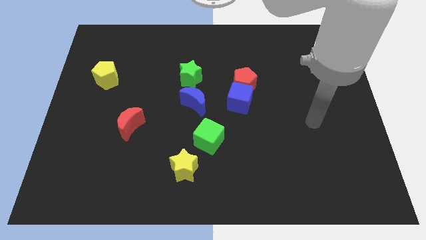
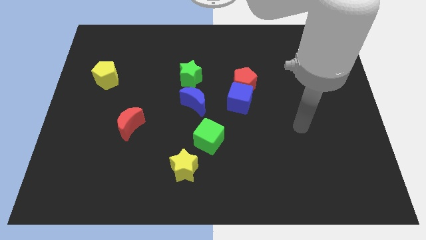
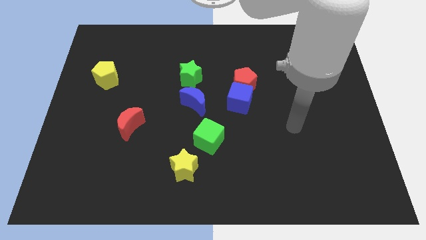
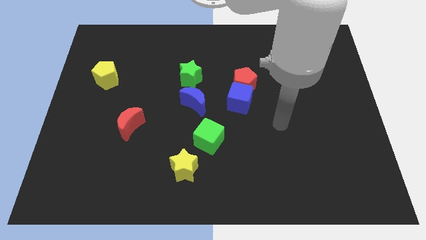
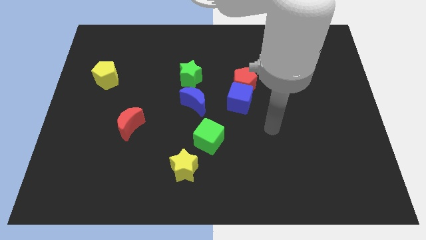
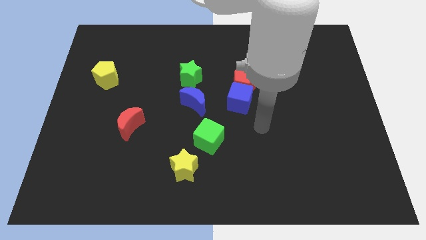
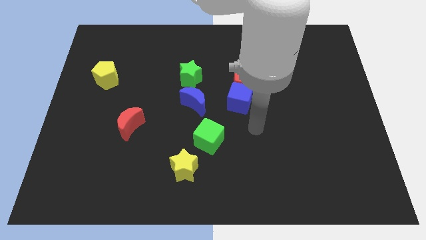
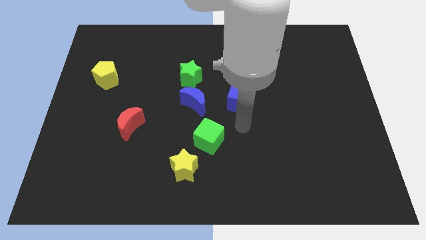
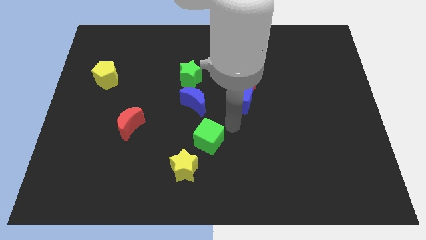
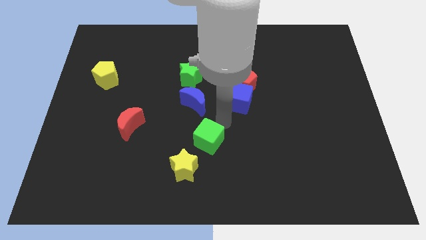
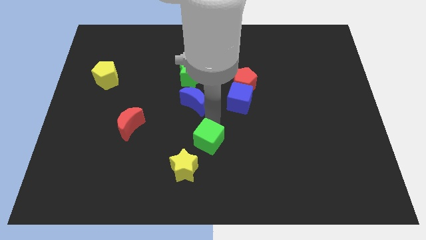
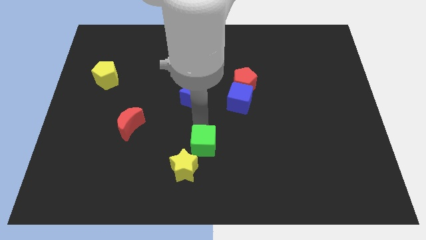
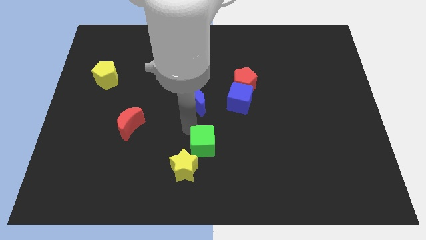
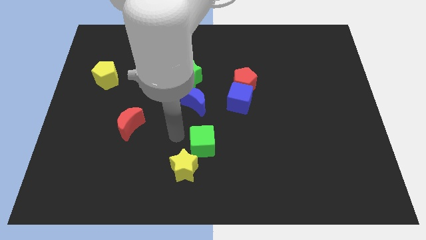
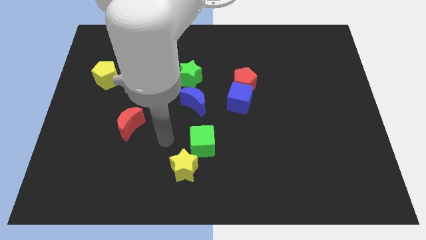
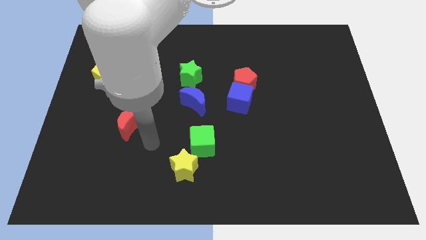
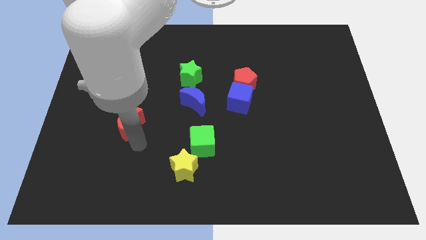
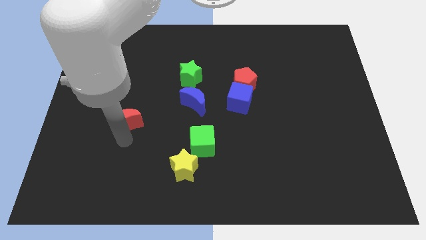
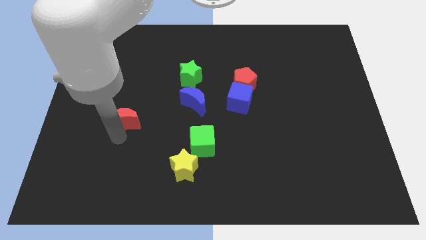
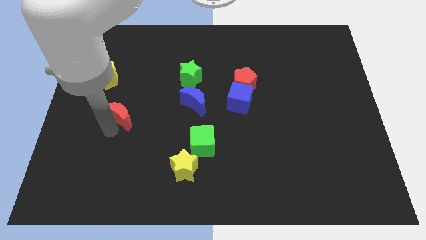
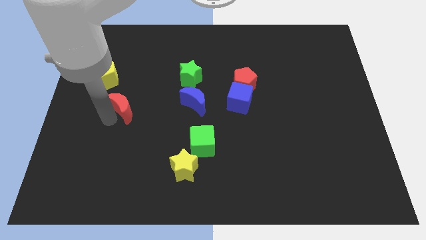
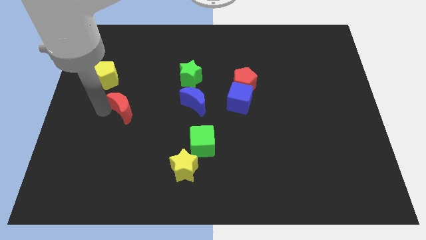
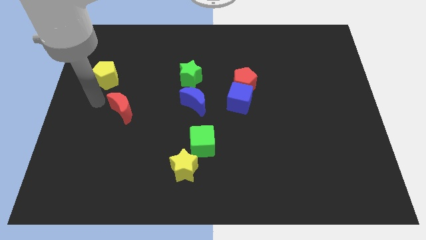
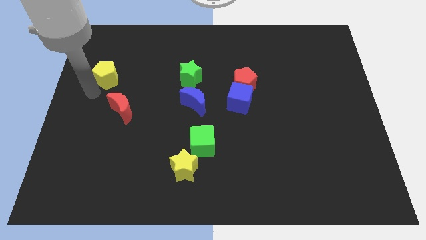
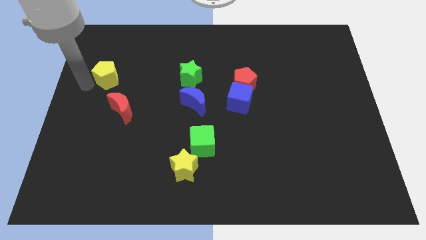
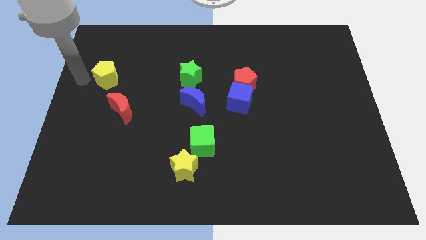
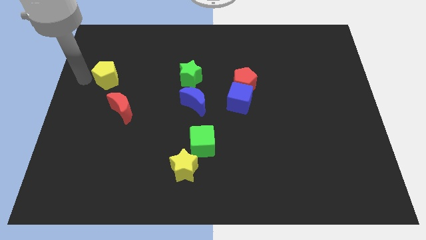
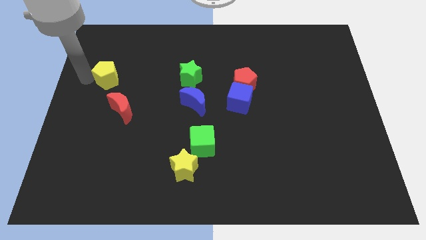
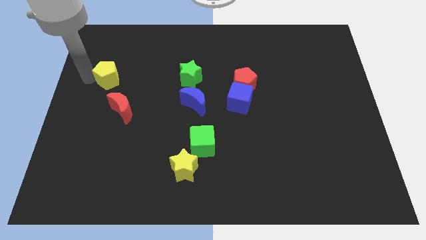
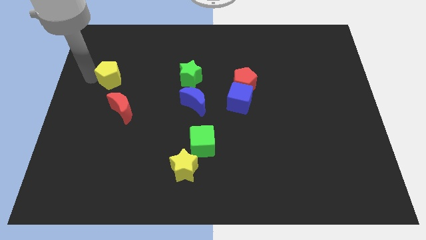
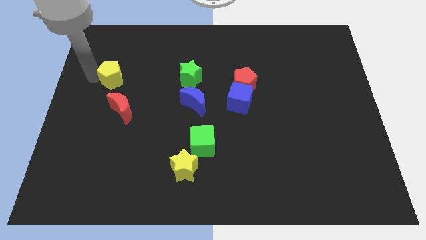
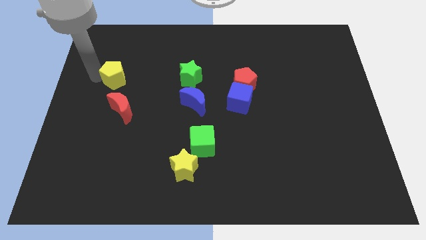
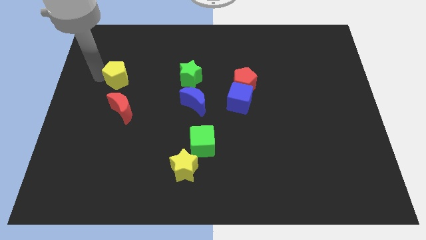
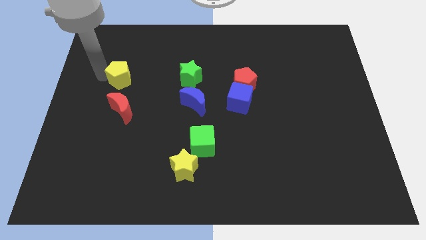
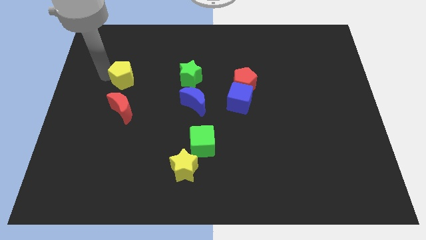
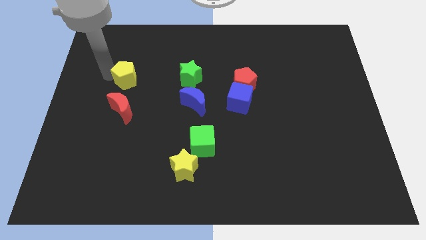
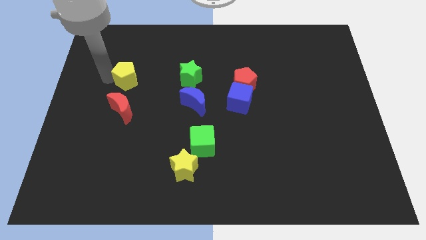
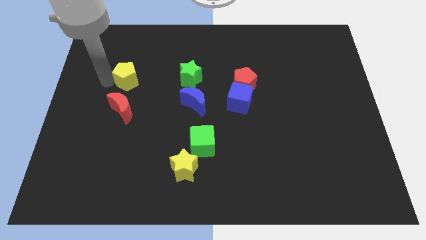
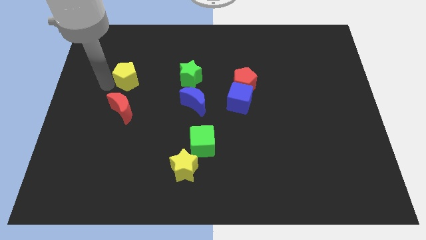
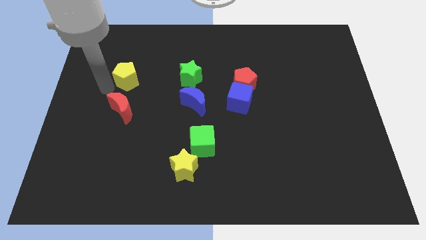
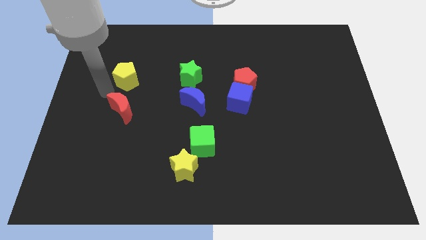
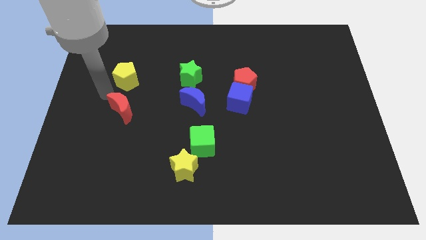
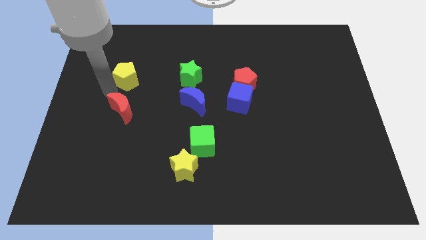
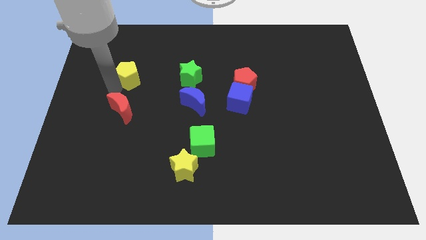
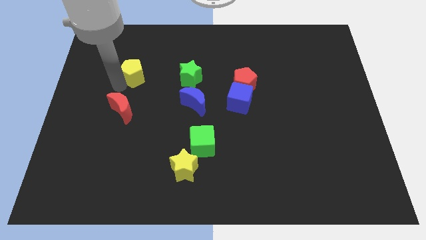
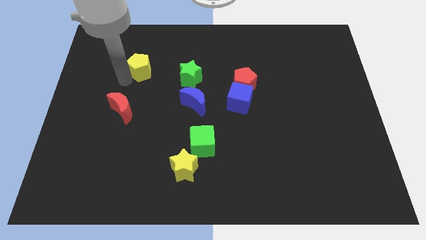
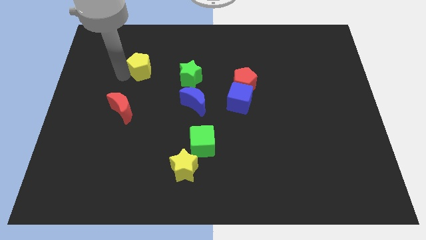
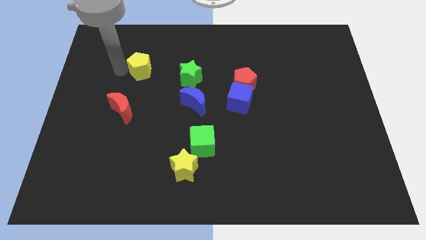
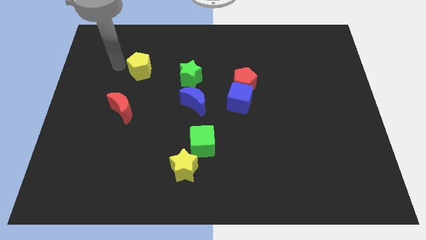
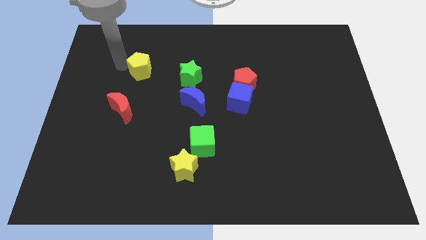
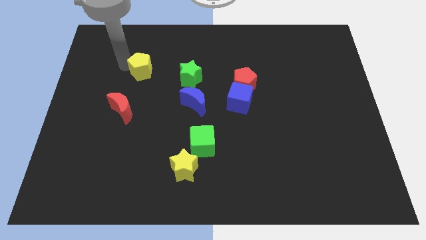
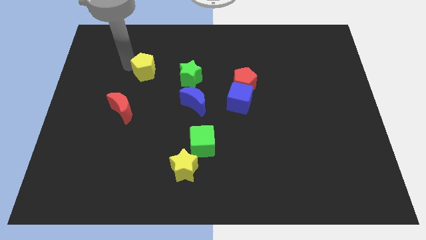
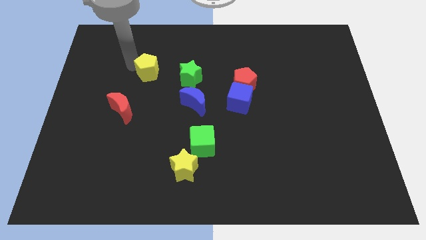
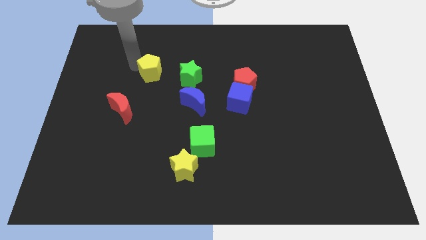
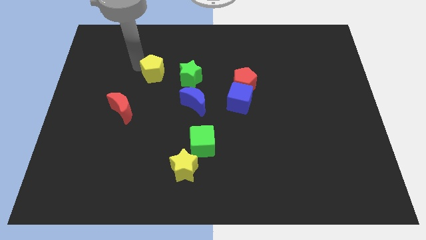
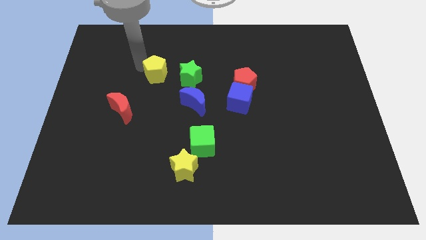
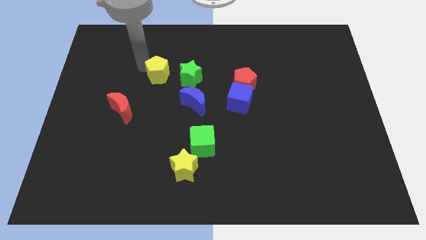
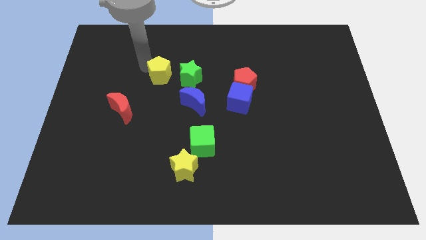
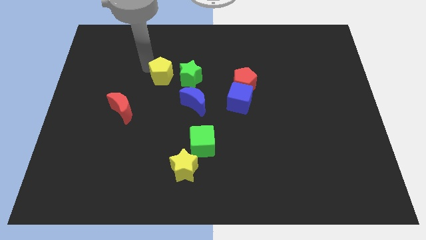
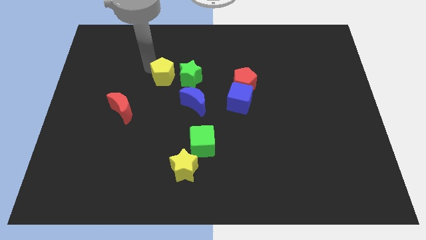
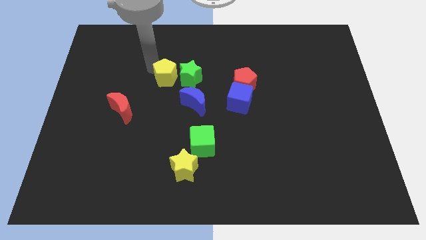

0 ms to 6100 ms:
put the yellow pentagon to the green star

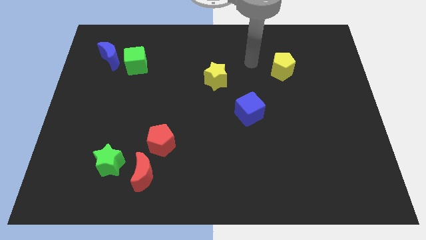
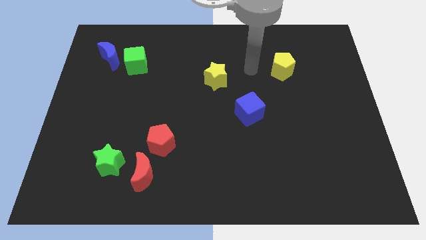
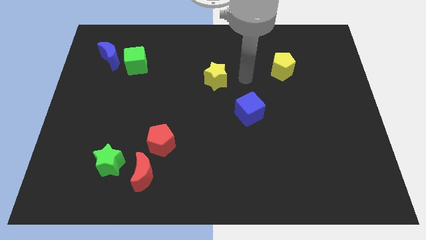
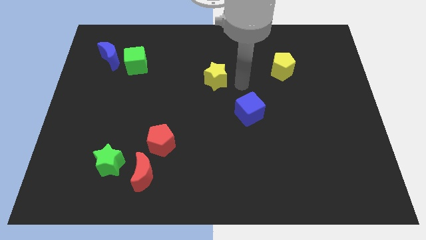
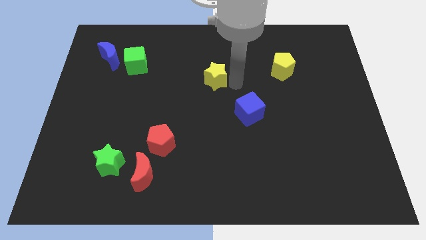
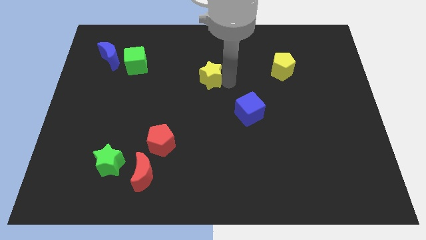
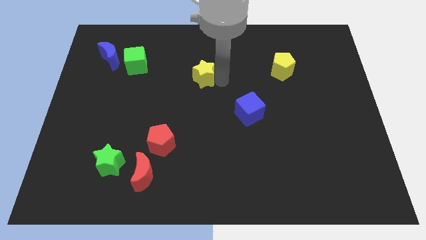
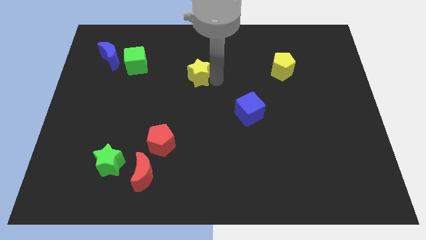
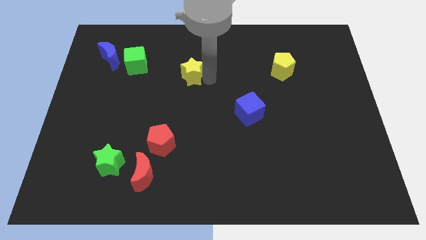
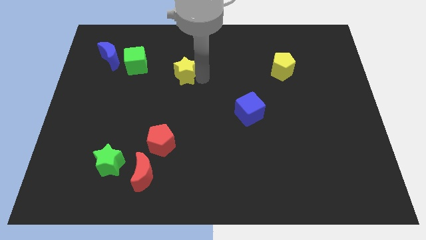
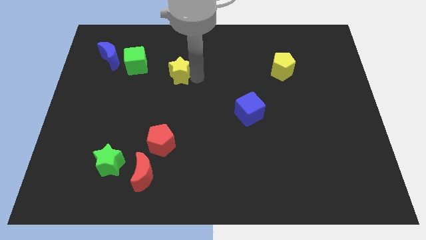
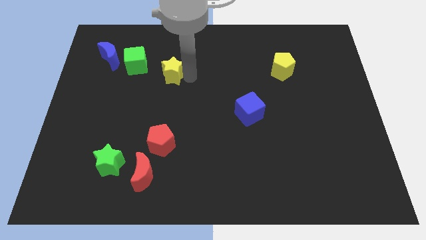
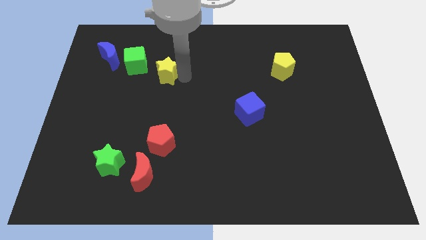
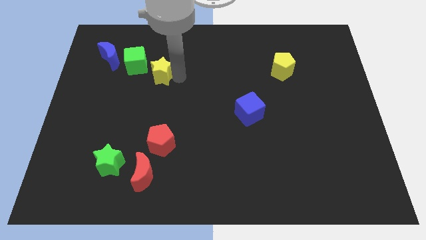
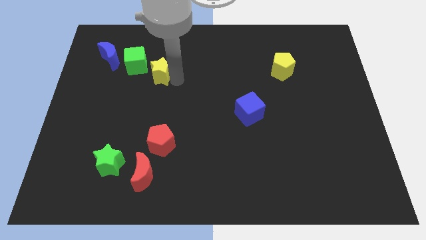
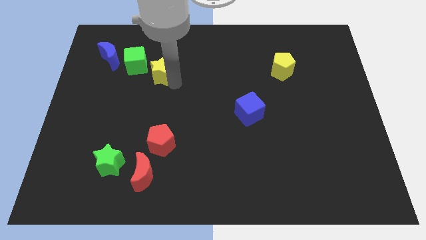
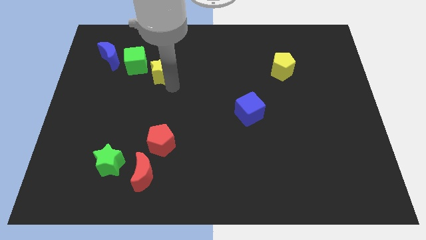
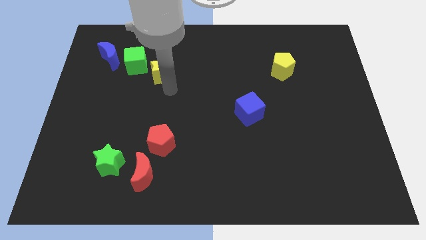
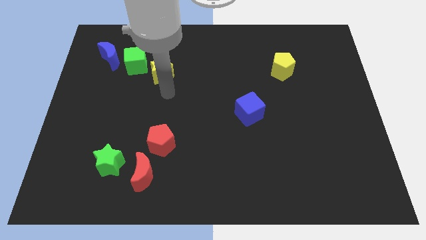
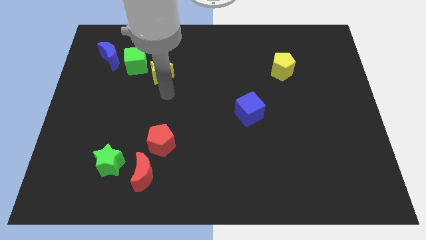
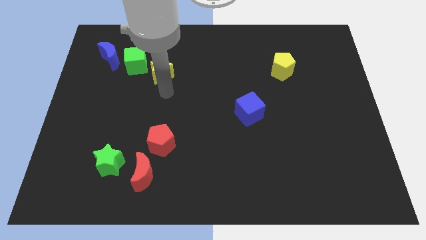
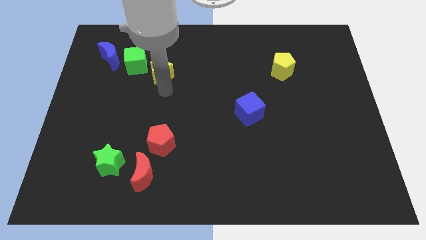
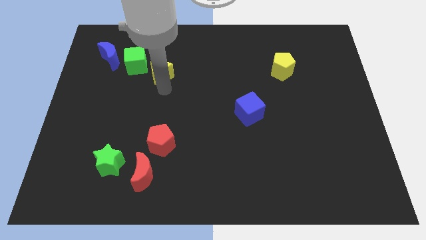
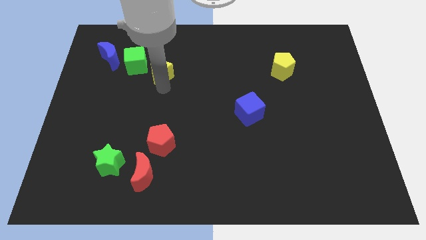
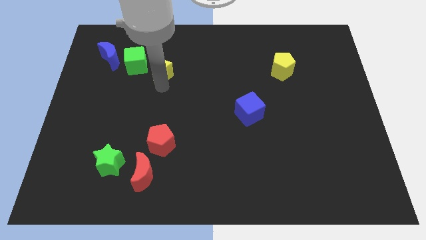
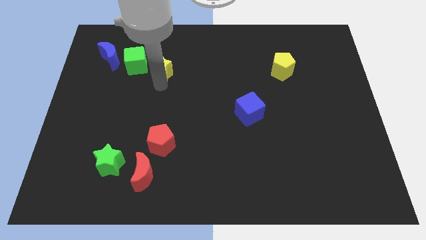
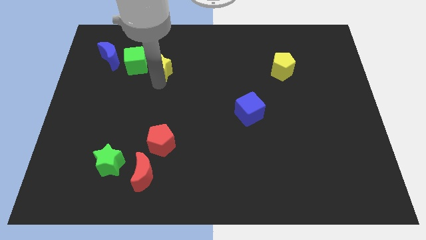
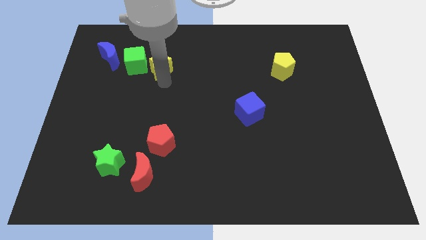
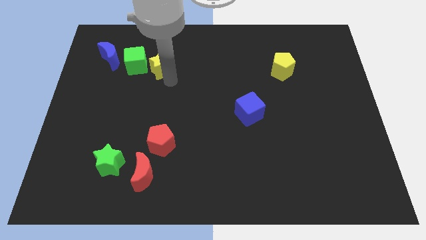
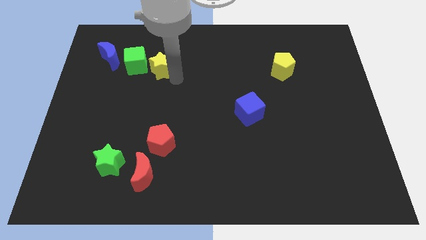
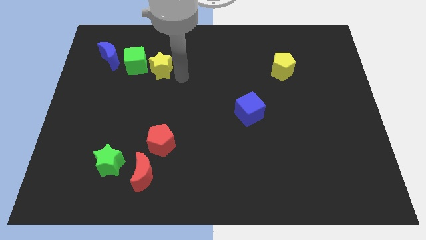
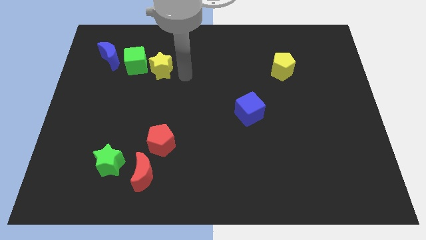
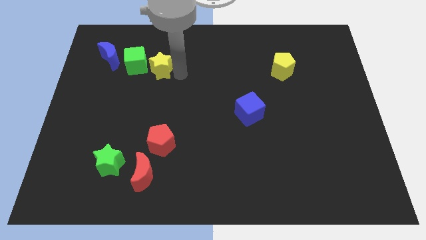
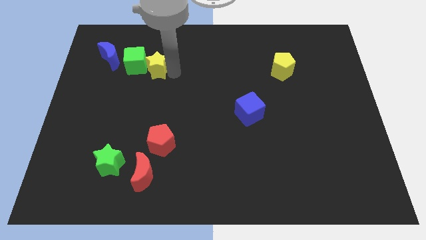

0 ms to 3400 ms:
put the yellow star to the green cube
